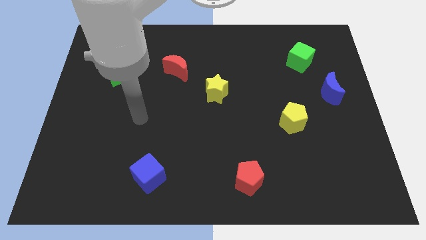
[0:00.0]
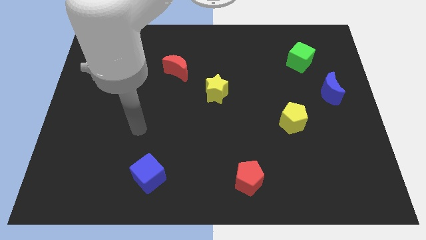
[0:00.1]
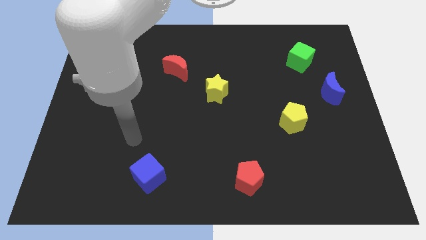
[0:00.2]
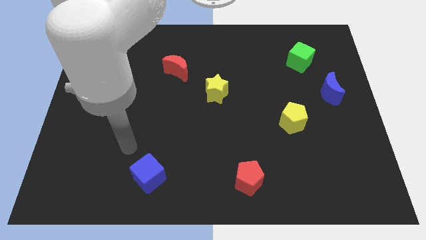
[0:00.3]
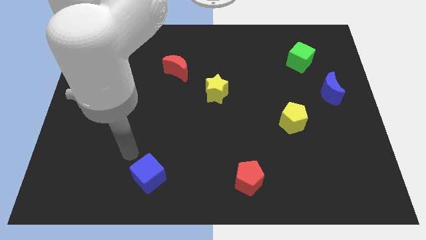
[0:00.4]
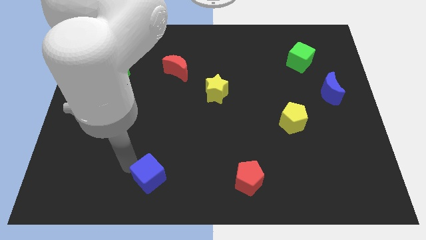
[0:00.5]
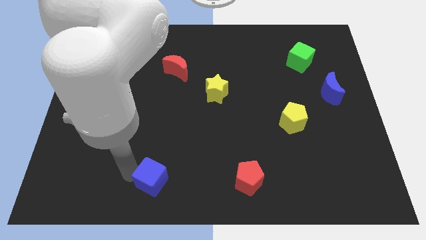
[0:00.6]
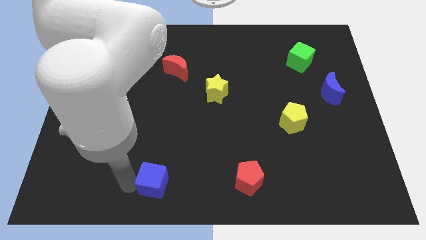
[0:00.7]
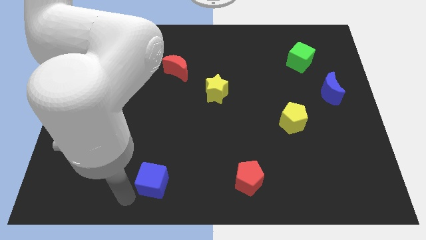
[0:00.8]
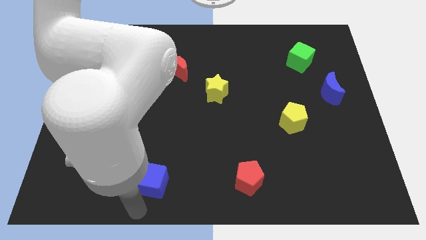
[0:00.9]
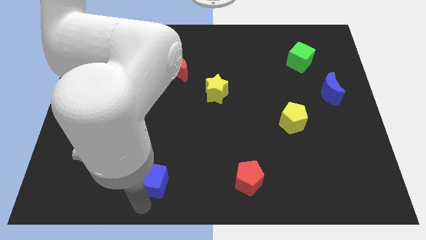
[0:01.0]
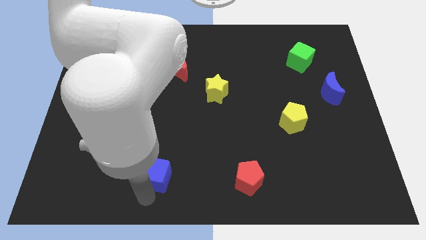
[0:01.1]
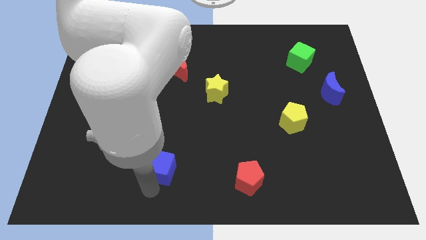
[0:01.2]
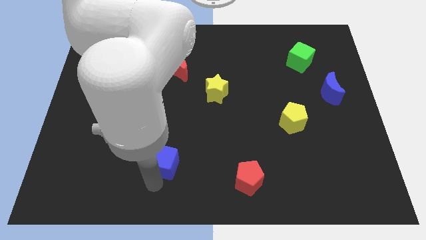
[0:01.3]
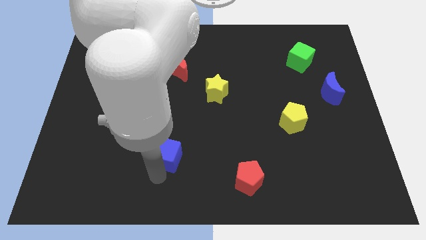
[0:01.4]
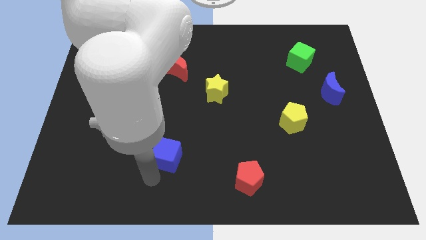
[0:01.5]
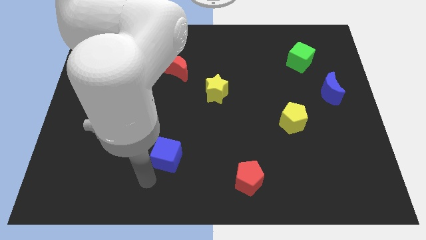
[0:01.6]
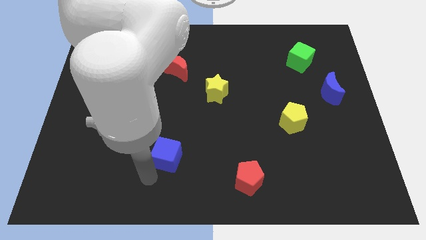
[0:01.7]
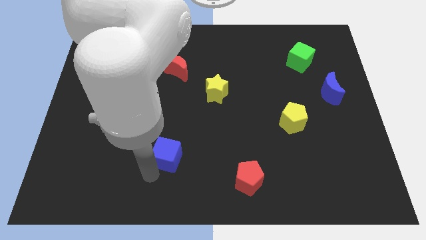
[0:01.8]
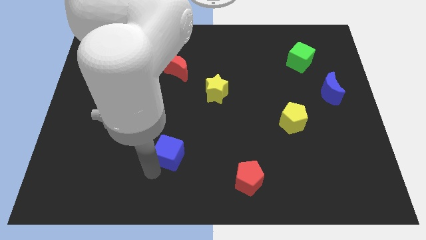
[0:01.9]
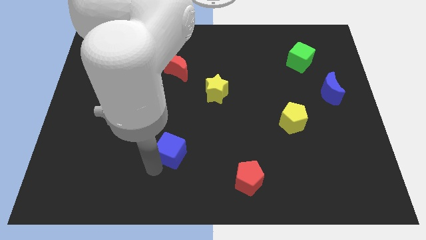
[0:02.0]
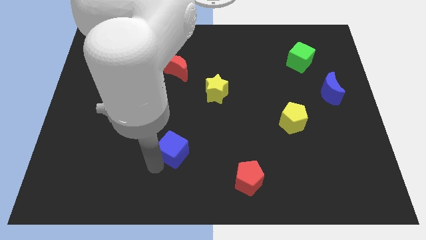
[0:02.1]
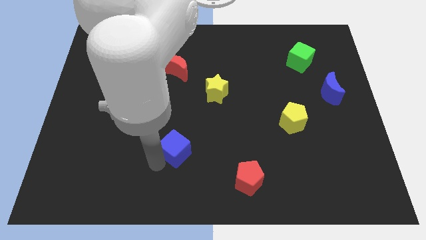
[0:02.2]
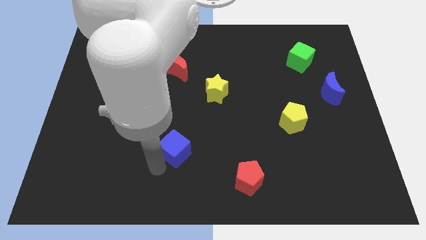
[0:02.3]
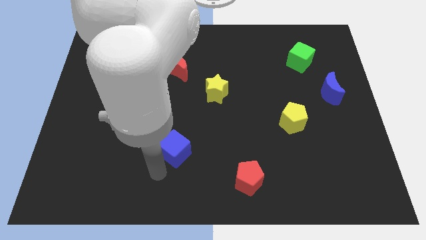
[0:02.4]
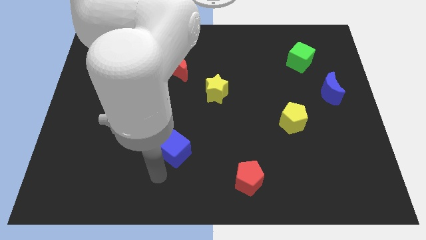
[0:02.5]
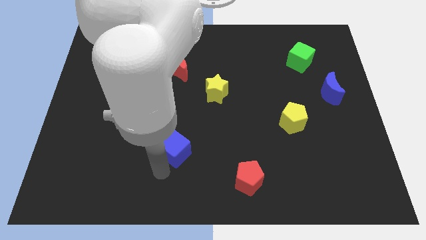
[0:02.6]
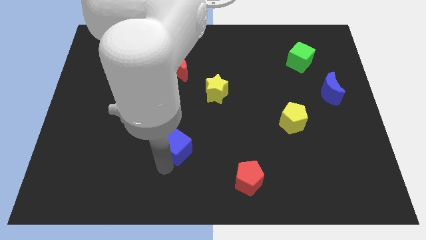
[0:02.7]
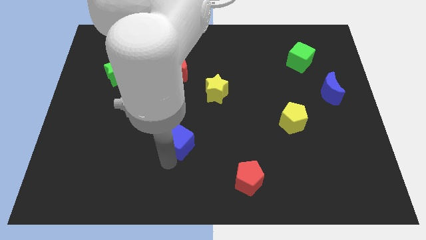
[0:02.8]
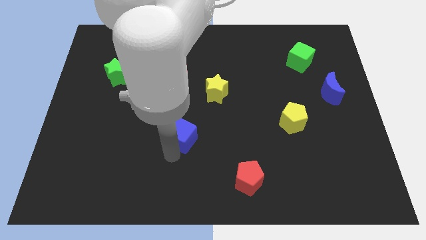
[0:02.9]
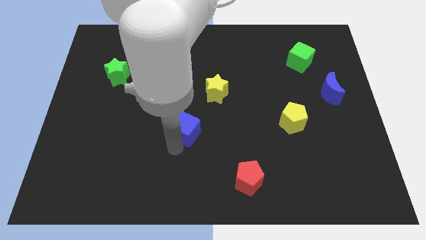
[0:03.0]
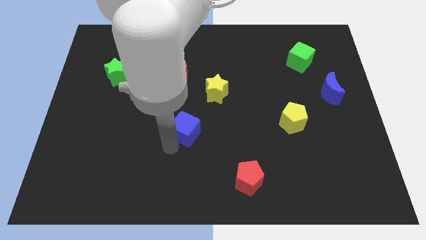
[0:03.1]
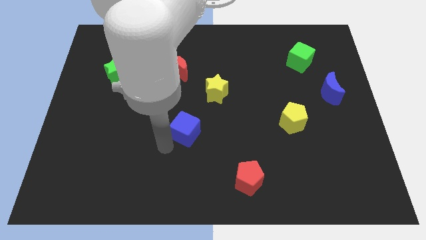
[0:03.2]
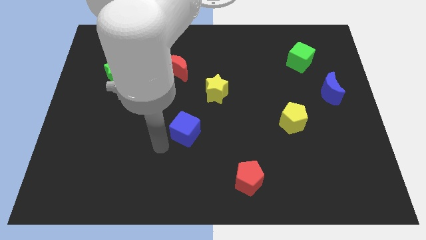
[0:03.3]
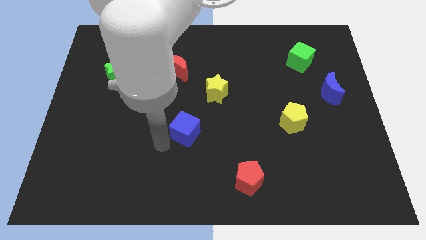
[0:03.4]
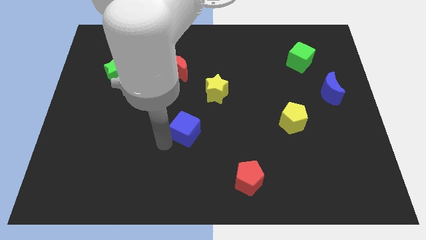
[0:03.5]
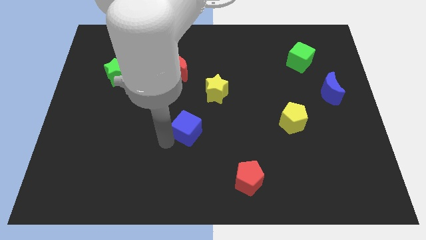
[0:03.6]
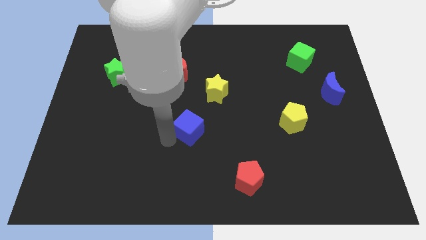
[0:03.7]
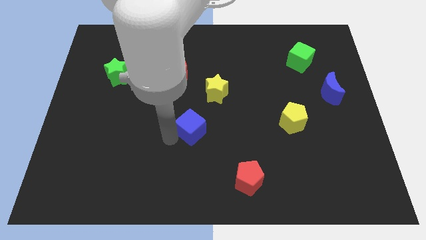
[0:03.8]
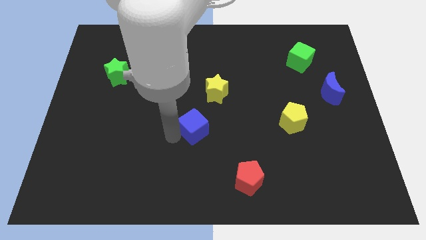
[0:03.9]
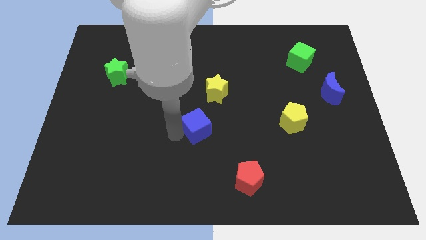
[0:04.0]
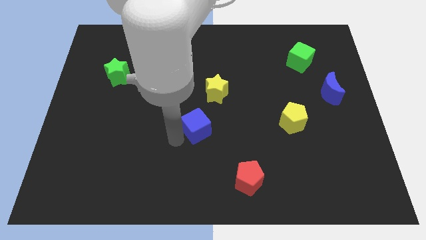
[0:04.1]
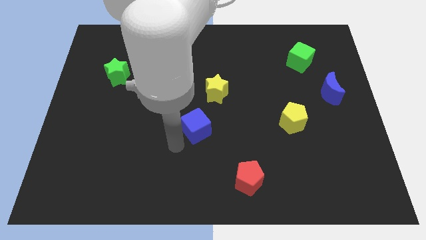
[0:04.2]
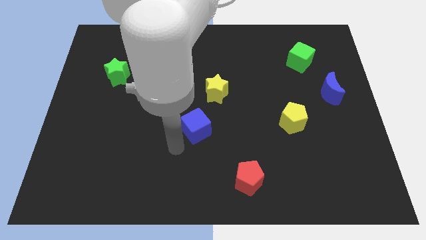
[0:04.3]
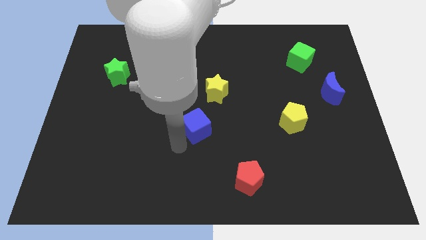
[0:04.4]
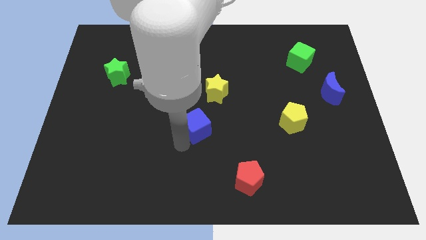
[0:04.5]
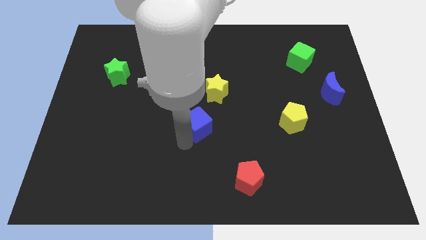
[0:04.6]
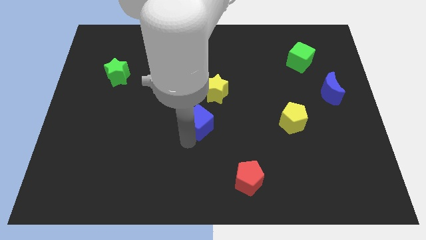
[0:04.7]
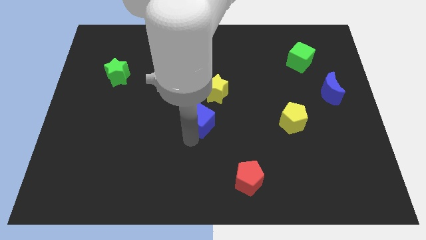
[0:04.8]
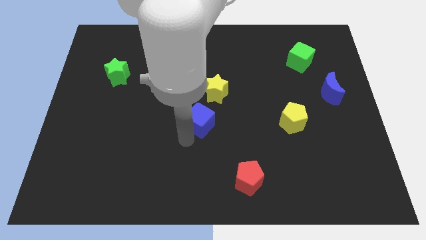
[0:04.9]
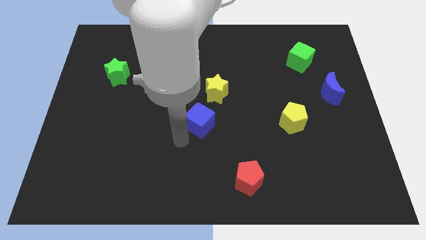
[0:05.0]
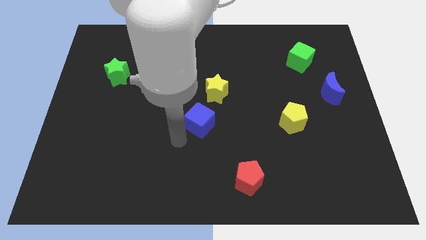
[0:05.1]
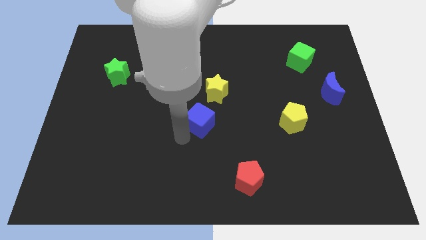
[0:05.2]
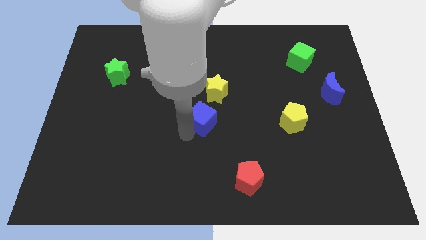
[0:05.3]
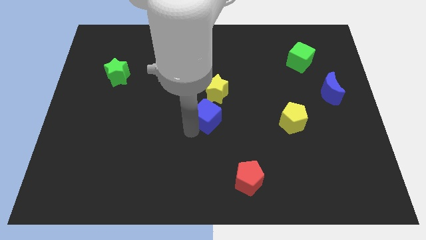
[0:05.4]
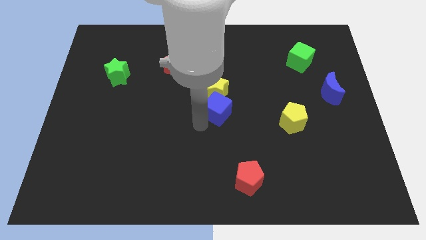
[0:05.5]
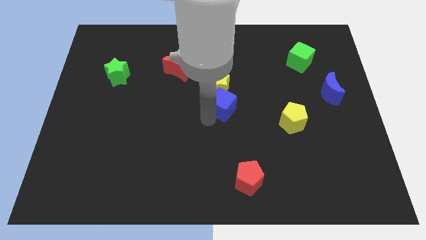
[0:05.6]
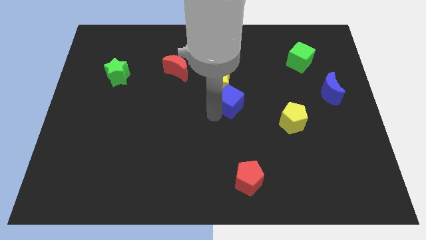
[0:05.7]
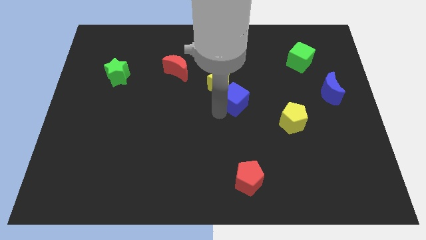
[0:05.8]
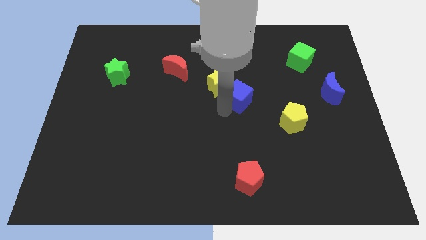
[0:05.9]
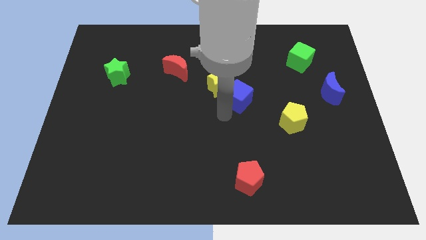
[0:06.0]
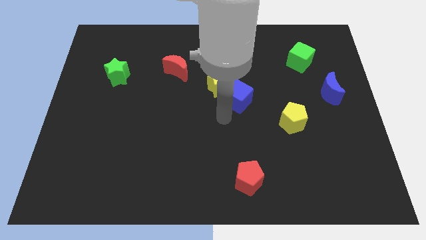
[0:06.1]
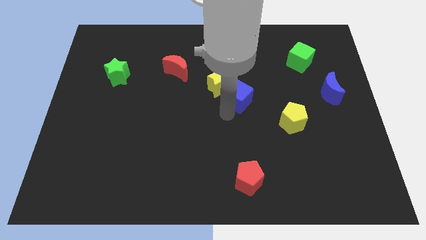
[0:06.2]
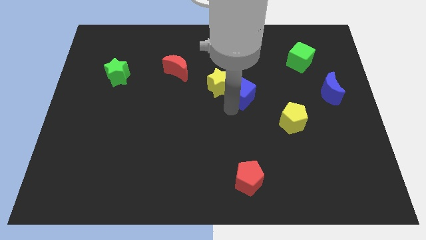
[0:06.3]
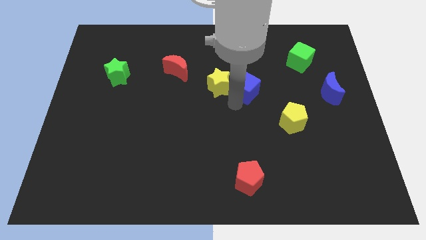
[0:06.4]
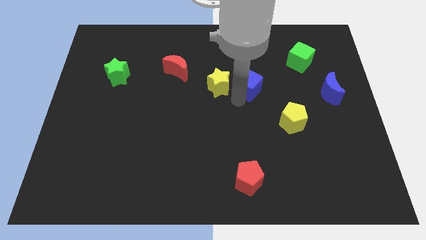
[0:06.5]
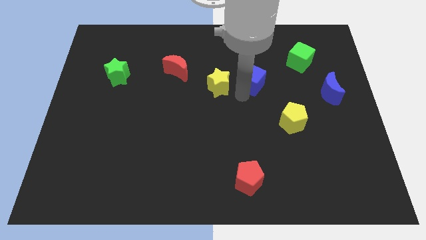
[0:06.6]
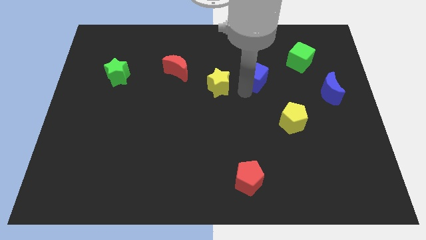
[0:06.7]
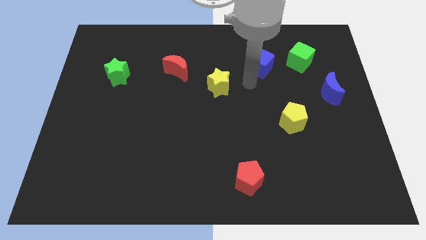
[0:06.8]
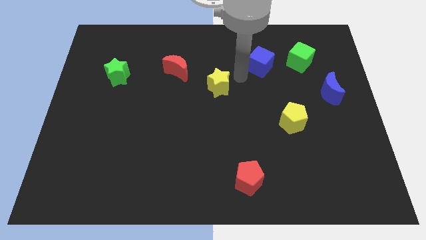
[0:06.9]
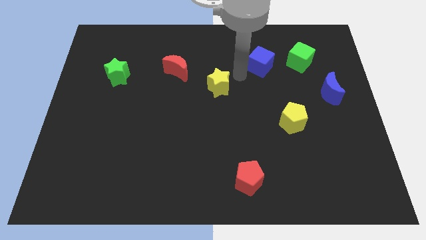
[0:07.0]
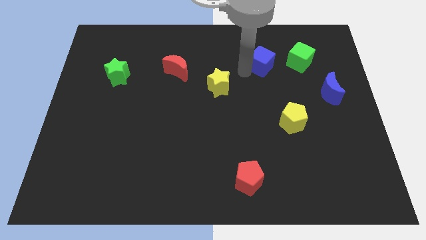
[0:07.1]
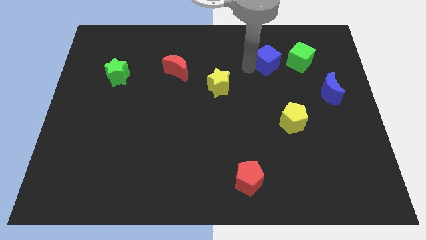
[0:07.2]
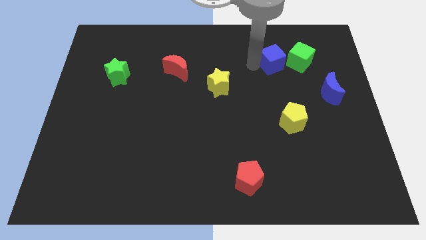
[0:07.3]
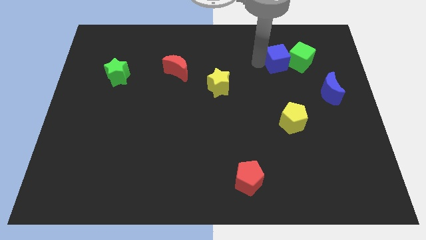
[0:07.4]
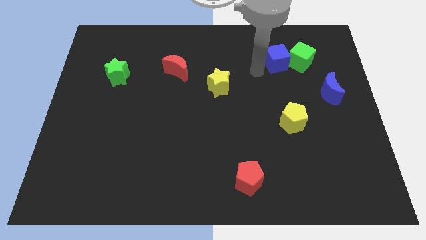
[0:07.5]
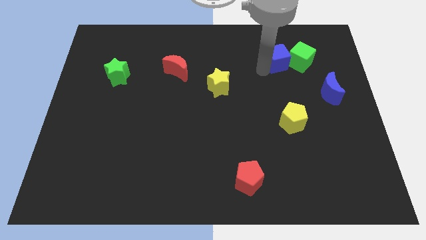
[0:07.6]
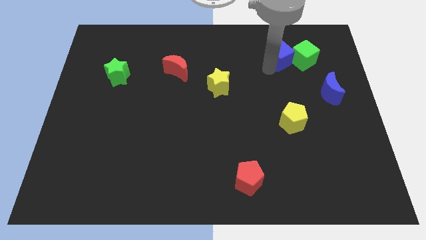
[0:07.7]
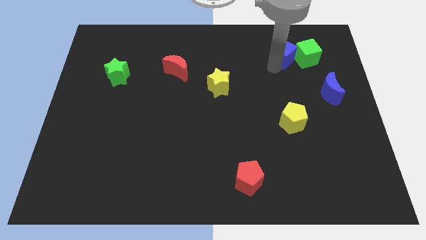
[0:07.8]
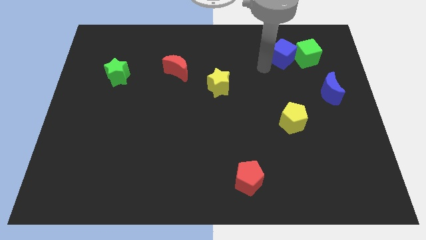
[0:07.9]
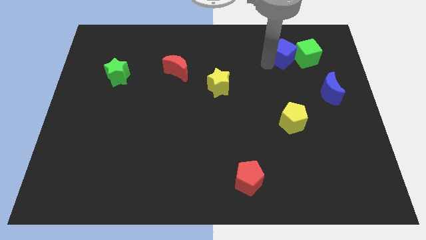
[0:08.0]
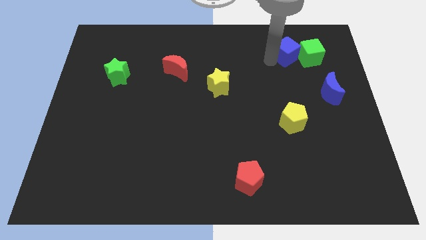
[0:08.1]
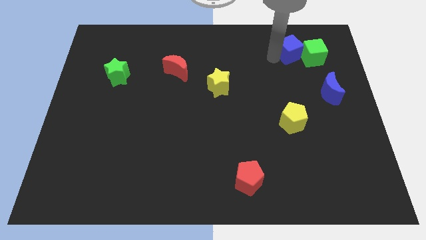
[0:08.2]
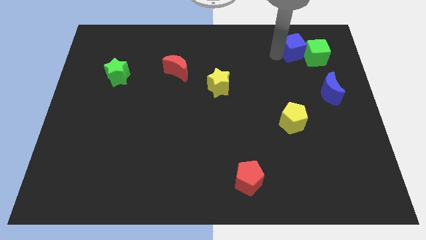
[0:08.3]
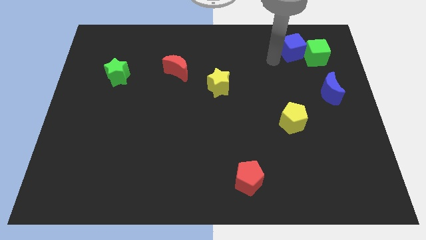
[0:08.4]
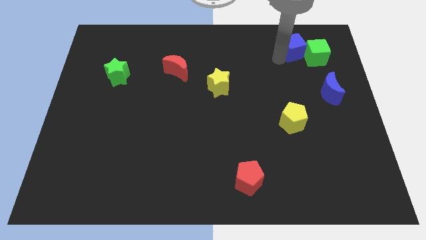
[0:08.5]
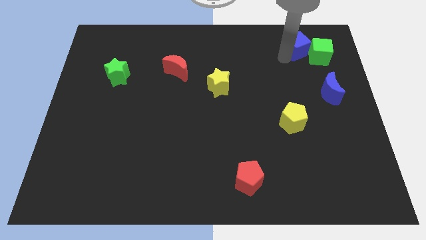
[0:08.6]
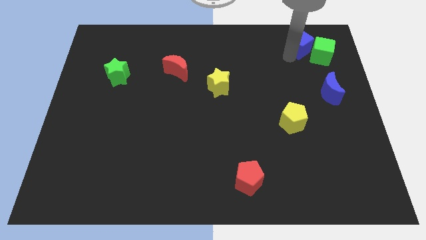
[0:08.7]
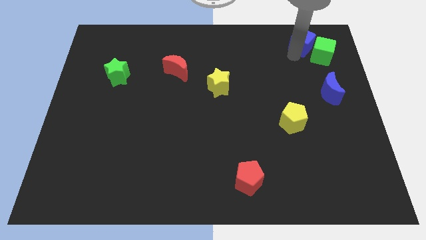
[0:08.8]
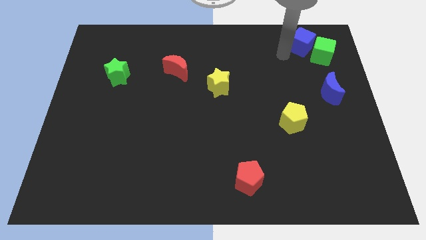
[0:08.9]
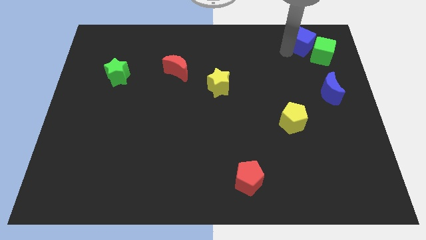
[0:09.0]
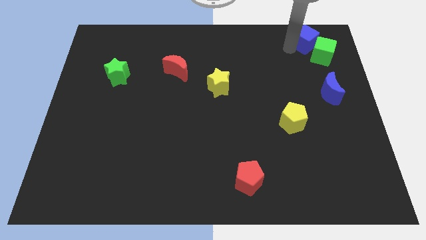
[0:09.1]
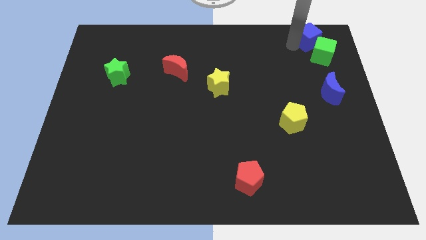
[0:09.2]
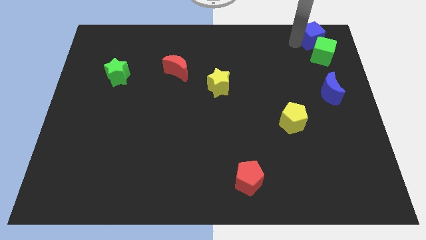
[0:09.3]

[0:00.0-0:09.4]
put the blue cube to the top right of the board
